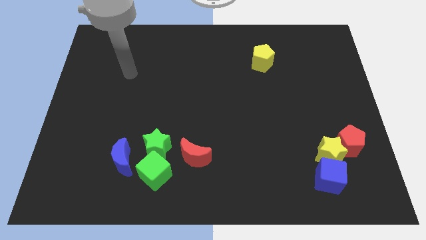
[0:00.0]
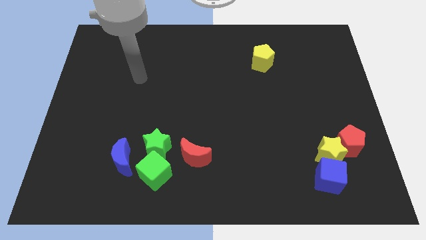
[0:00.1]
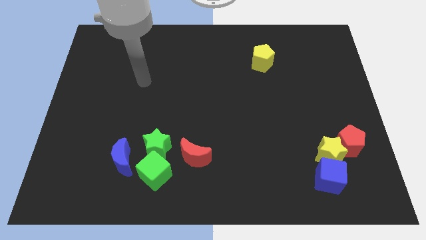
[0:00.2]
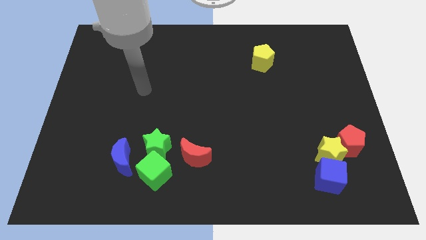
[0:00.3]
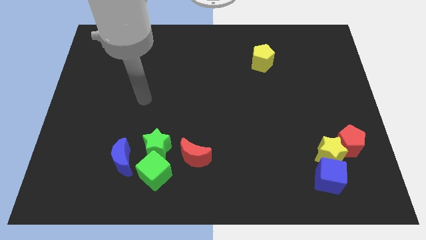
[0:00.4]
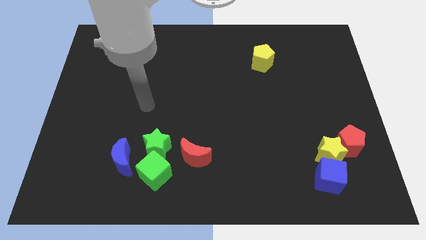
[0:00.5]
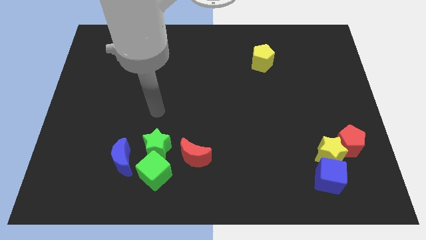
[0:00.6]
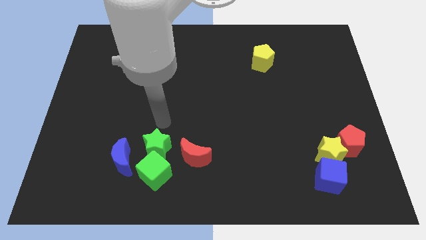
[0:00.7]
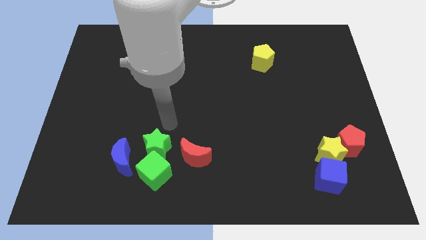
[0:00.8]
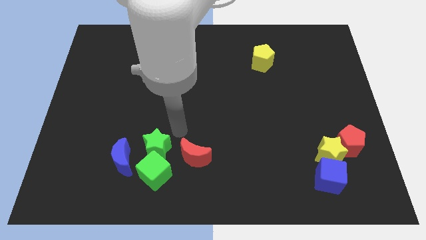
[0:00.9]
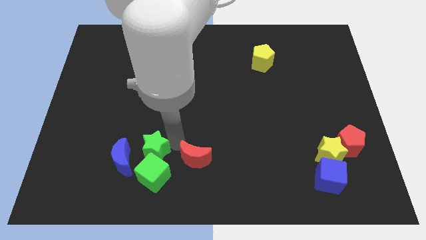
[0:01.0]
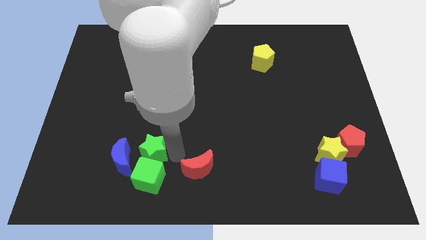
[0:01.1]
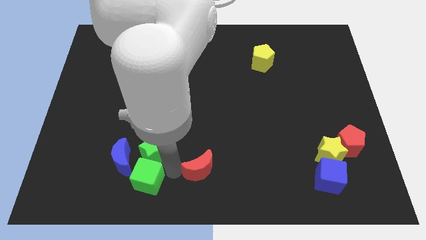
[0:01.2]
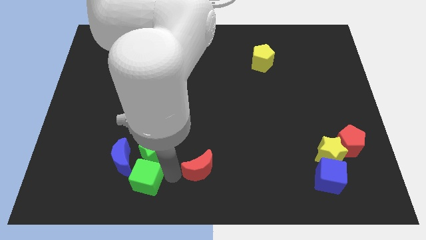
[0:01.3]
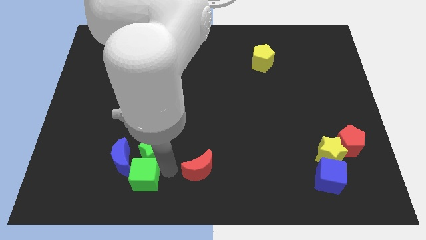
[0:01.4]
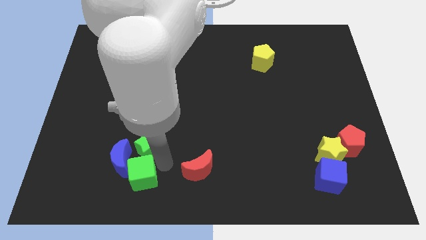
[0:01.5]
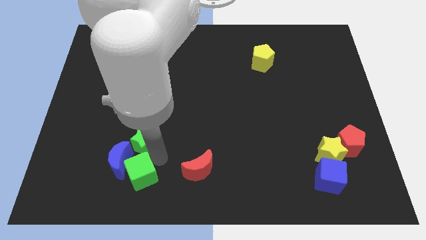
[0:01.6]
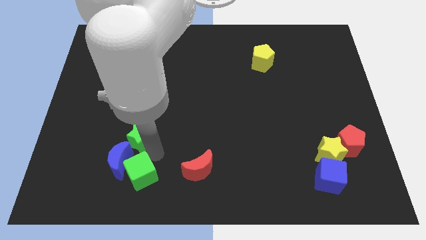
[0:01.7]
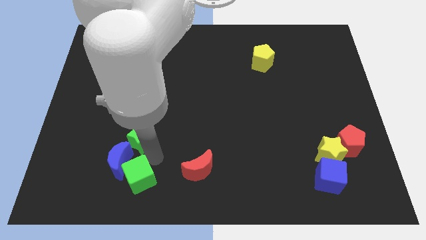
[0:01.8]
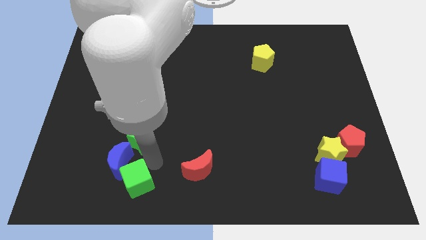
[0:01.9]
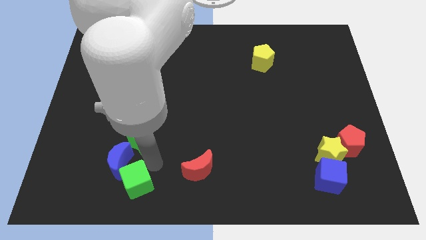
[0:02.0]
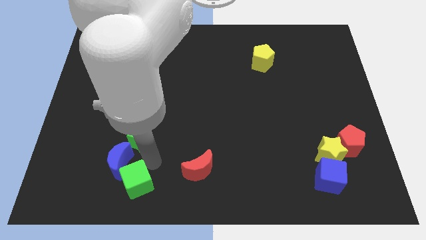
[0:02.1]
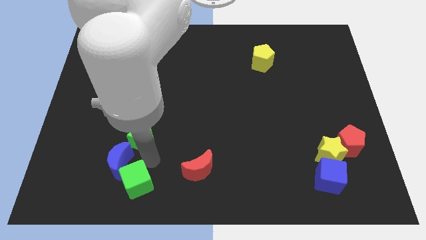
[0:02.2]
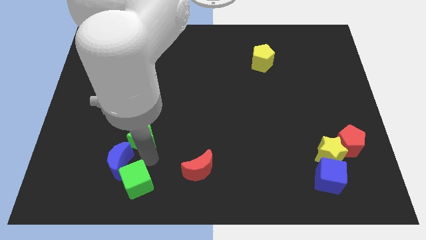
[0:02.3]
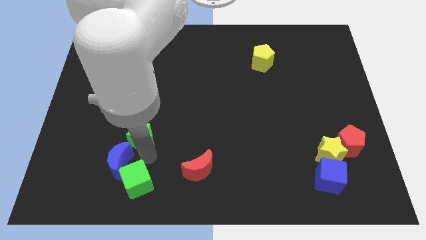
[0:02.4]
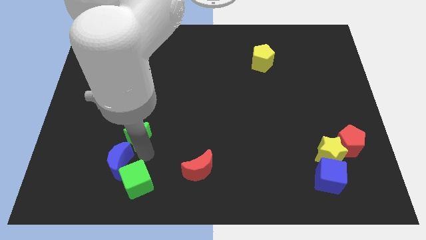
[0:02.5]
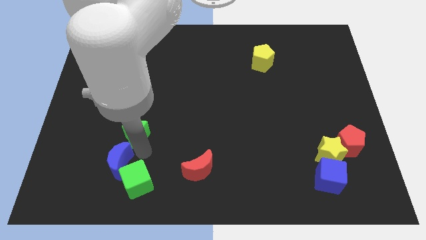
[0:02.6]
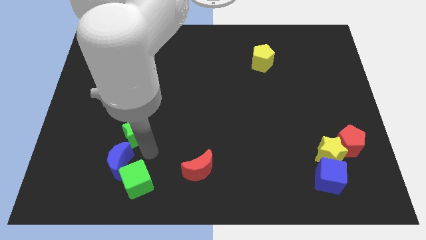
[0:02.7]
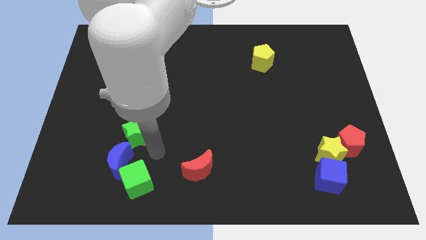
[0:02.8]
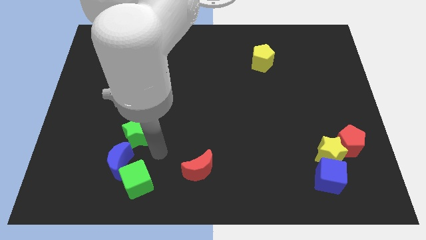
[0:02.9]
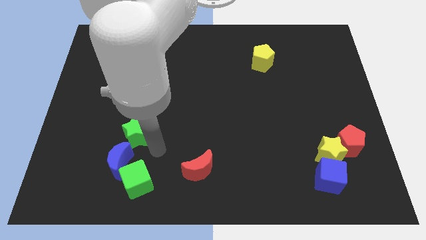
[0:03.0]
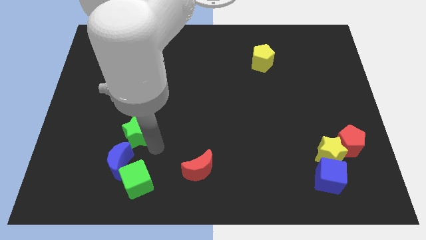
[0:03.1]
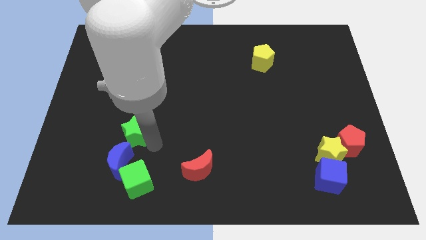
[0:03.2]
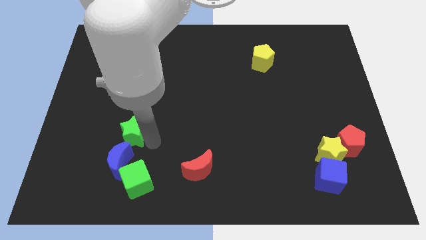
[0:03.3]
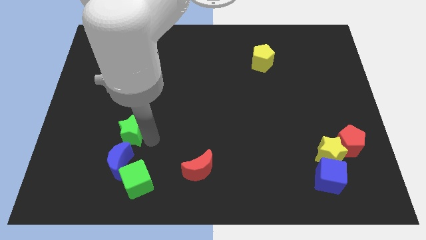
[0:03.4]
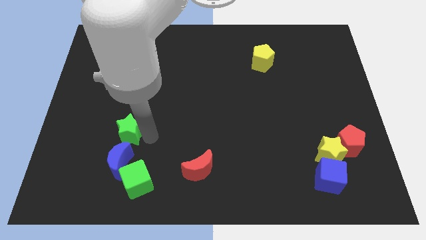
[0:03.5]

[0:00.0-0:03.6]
move the green star upwards and then left a little bit

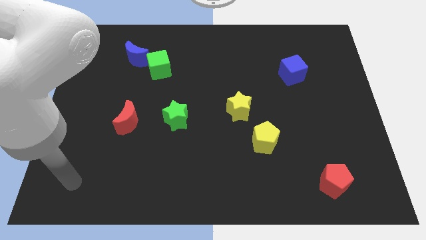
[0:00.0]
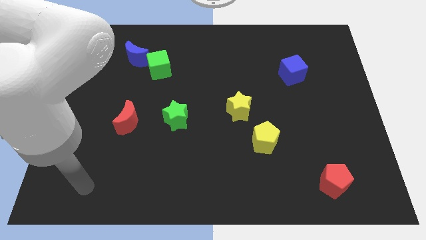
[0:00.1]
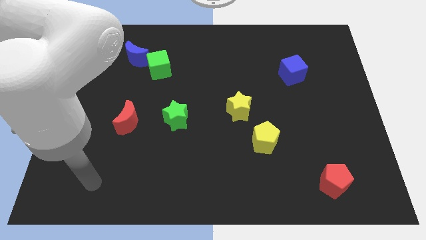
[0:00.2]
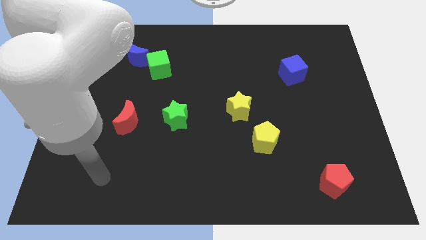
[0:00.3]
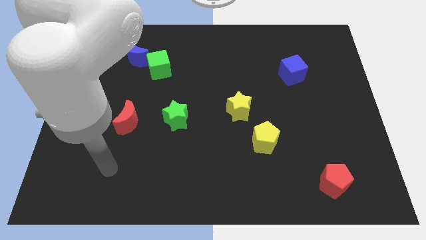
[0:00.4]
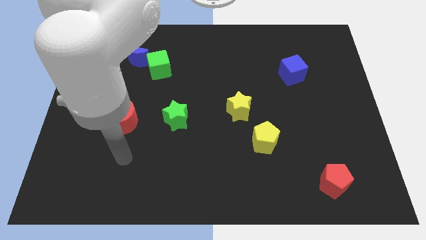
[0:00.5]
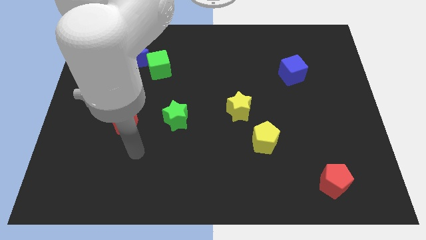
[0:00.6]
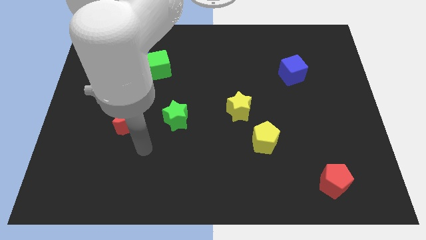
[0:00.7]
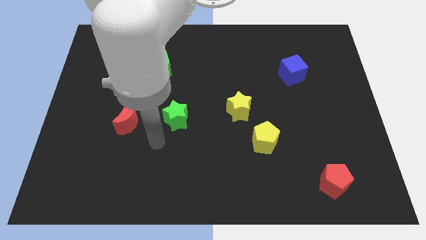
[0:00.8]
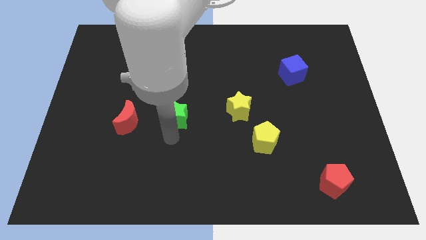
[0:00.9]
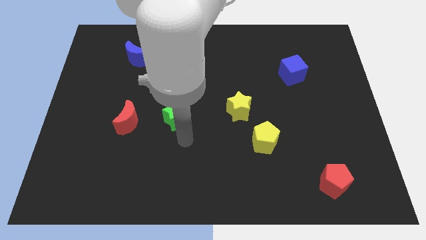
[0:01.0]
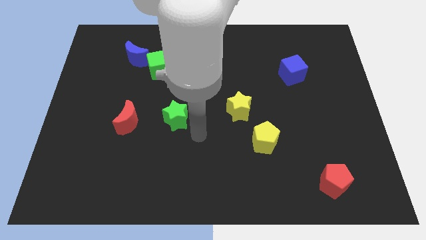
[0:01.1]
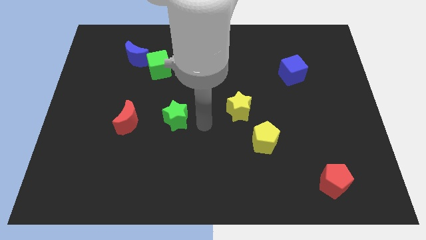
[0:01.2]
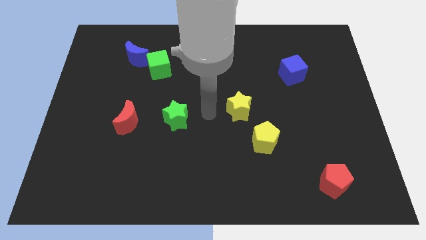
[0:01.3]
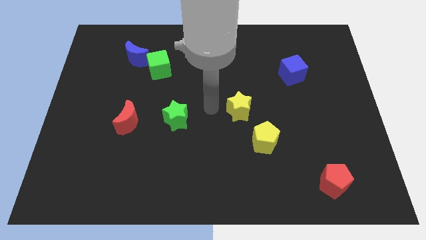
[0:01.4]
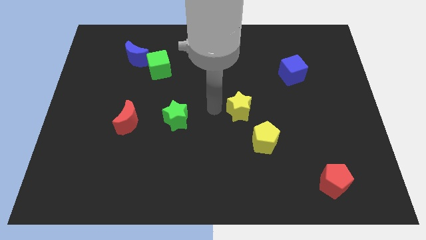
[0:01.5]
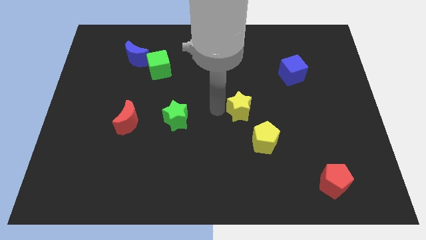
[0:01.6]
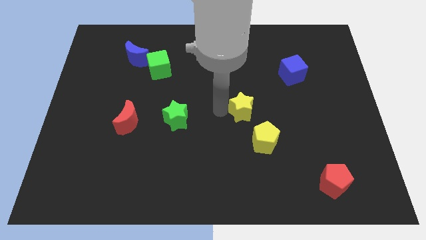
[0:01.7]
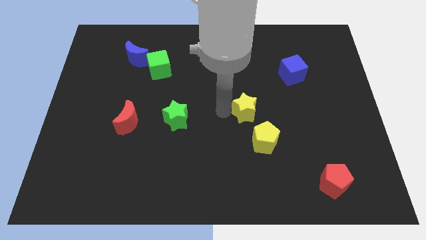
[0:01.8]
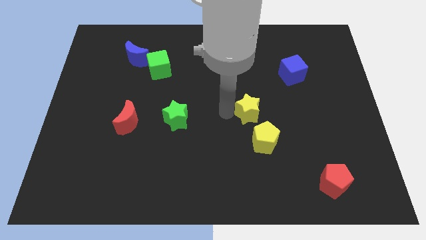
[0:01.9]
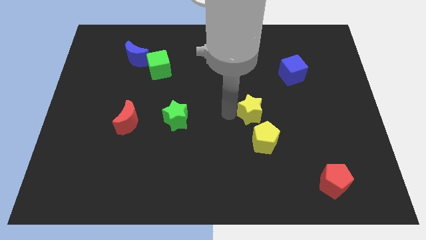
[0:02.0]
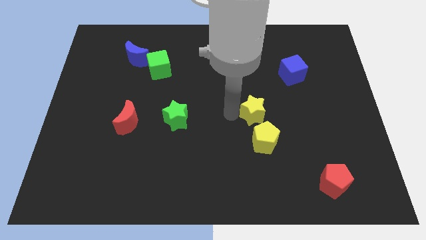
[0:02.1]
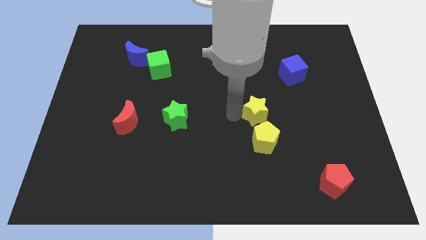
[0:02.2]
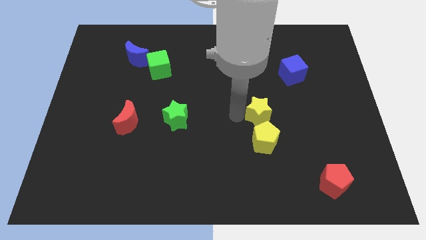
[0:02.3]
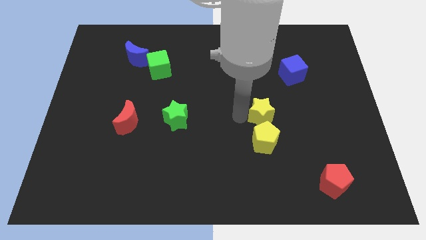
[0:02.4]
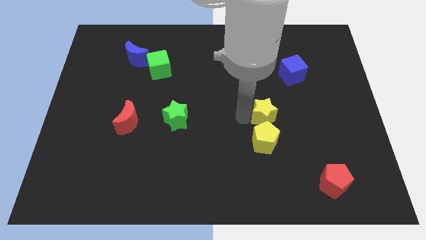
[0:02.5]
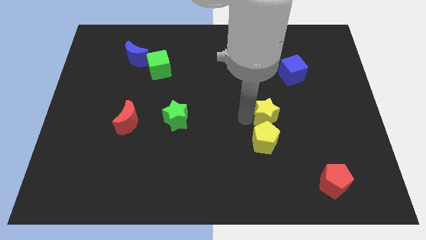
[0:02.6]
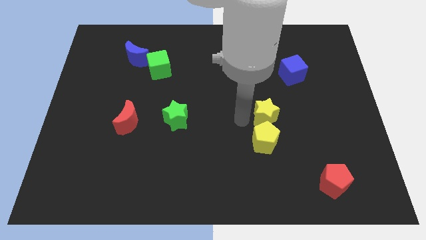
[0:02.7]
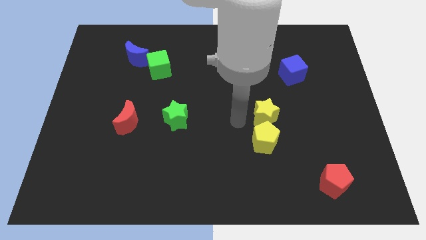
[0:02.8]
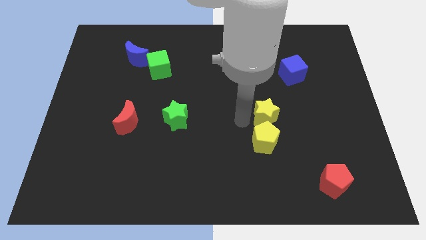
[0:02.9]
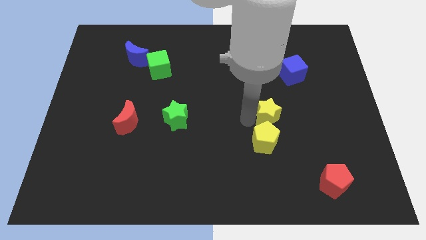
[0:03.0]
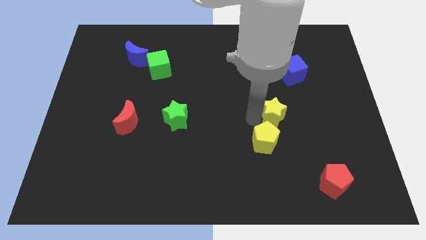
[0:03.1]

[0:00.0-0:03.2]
slightly move the yellow star right

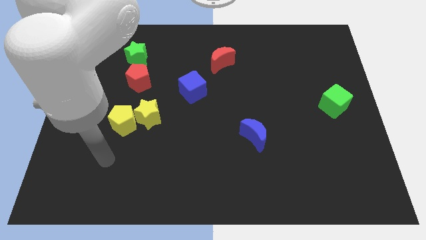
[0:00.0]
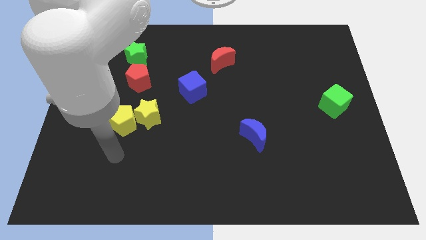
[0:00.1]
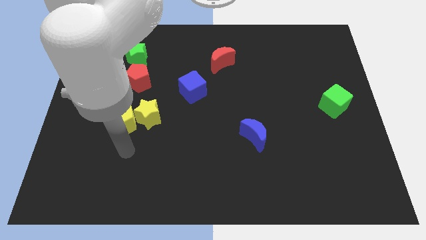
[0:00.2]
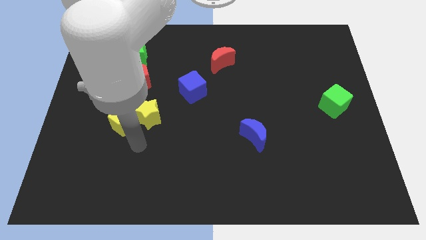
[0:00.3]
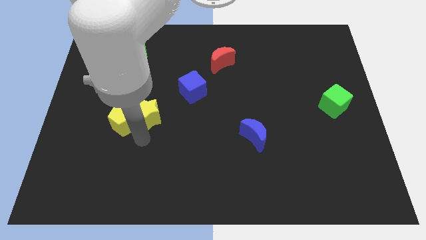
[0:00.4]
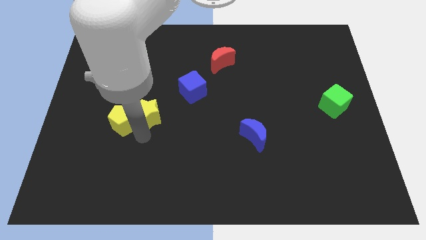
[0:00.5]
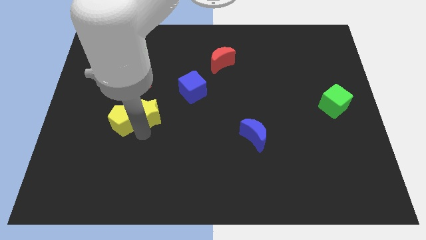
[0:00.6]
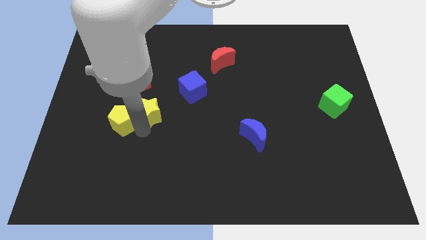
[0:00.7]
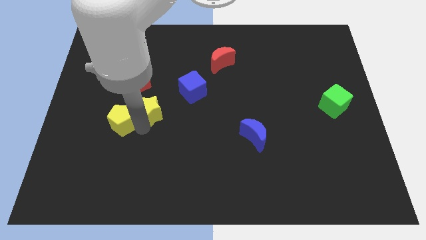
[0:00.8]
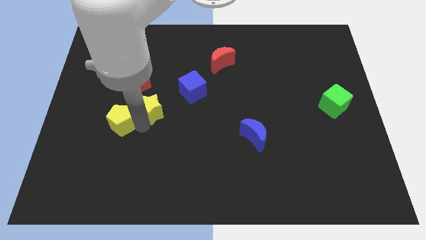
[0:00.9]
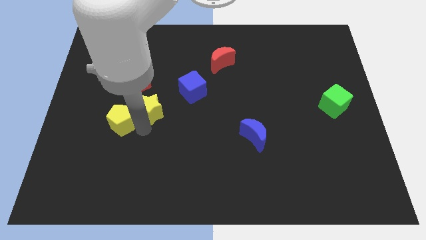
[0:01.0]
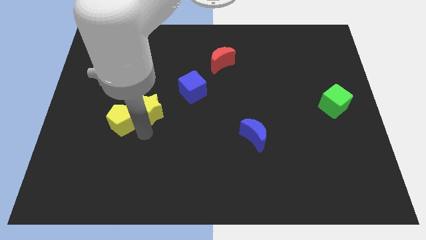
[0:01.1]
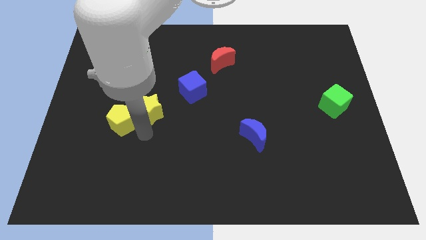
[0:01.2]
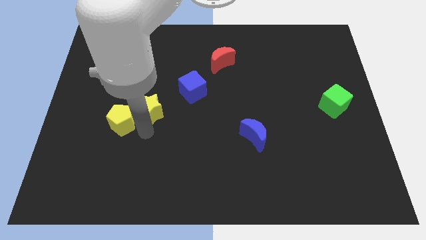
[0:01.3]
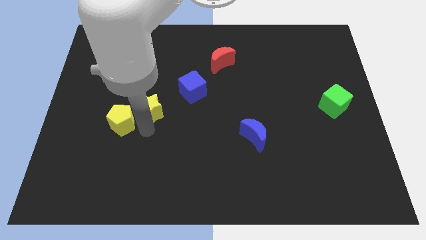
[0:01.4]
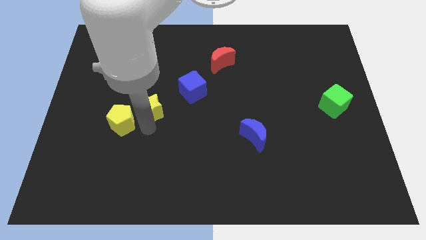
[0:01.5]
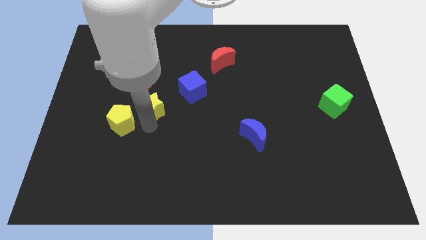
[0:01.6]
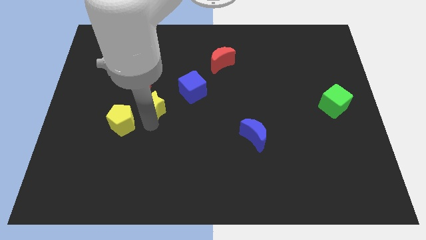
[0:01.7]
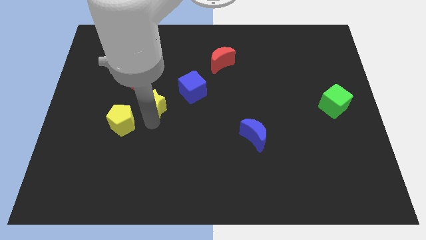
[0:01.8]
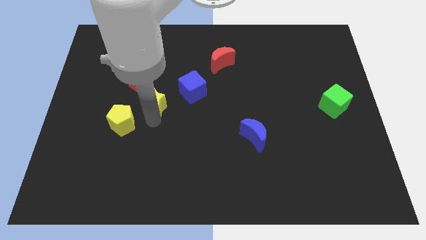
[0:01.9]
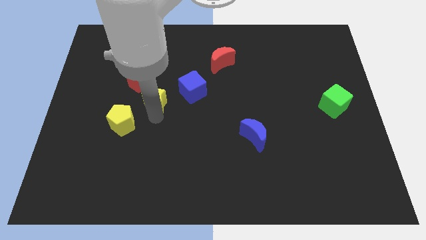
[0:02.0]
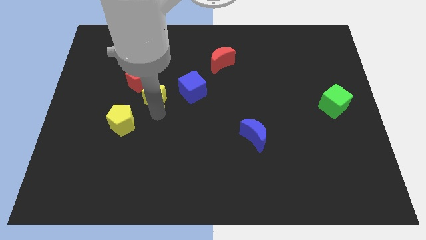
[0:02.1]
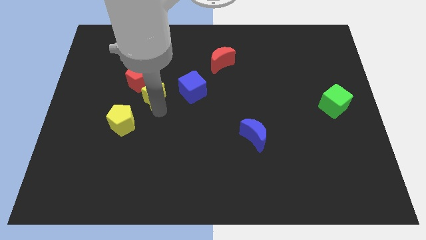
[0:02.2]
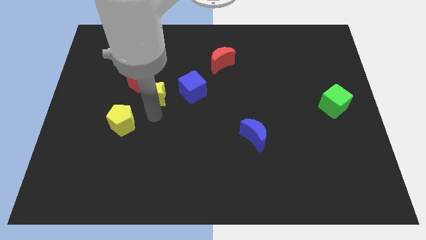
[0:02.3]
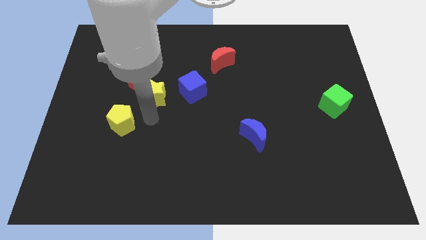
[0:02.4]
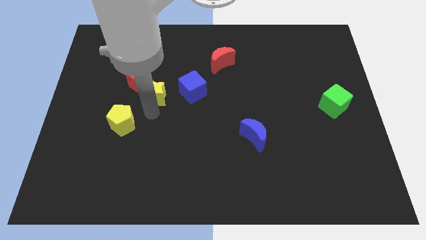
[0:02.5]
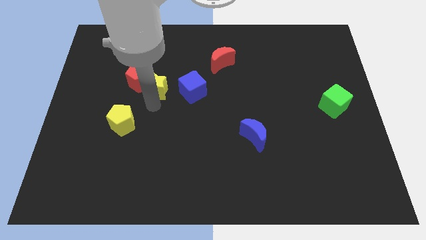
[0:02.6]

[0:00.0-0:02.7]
slide the yellow star up a bit
